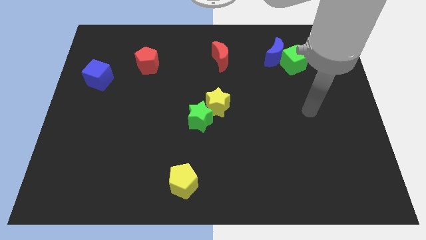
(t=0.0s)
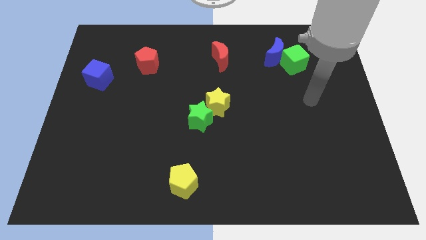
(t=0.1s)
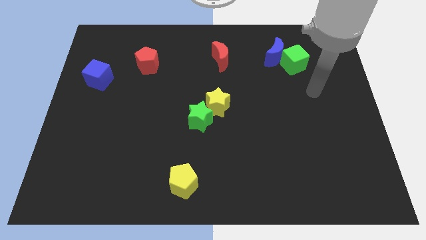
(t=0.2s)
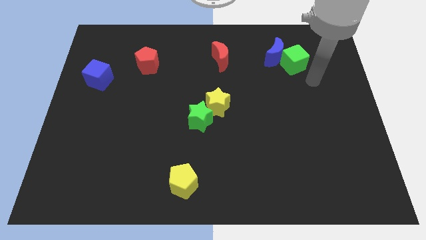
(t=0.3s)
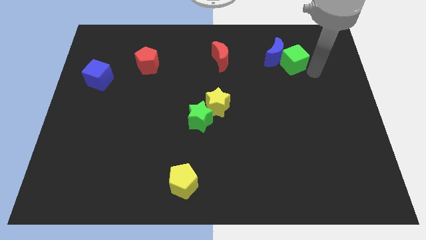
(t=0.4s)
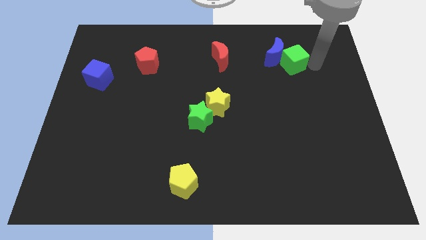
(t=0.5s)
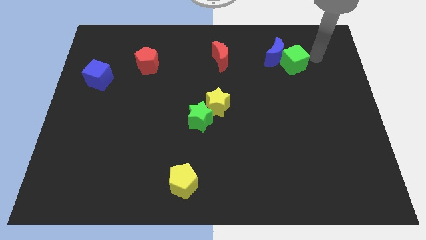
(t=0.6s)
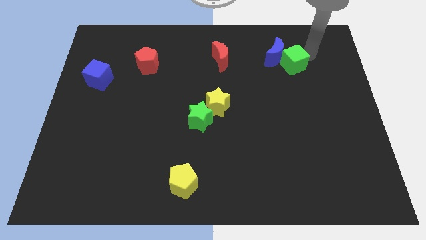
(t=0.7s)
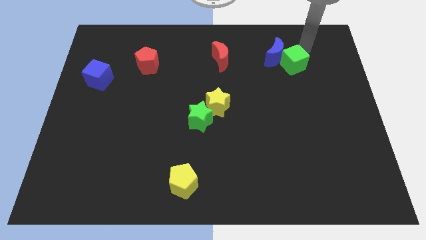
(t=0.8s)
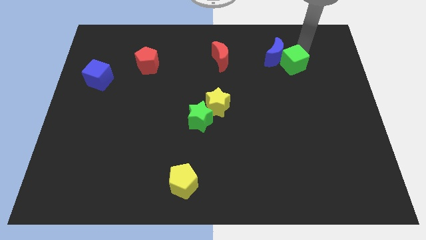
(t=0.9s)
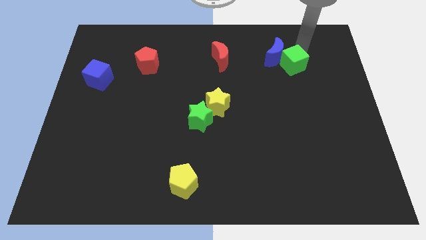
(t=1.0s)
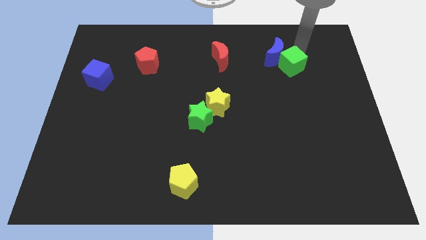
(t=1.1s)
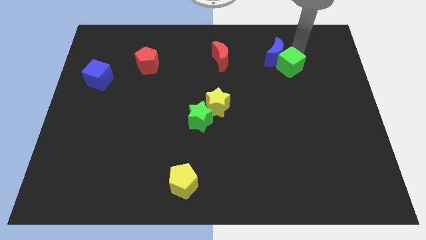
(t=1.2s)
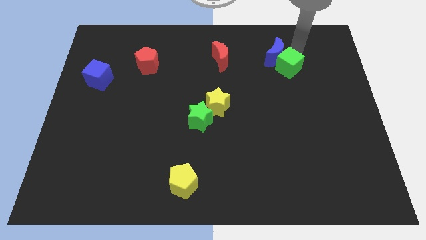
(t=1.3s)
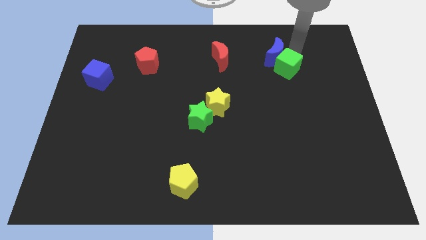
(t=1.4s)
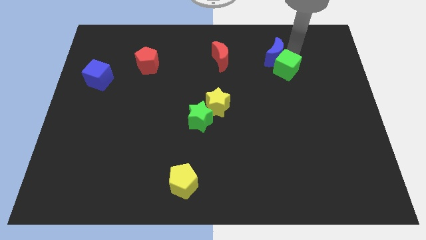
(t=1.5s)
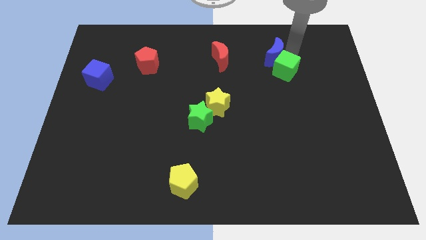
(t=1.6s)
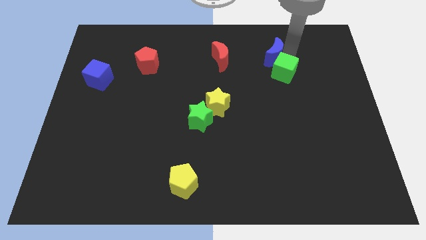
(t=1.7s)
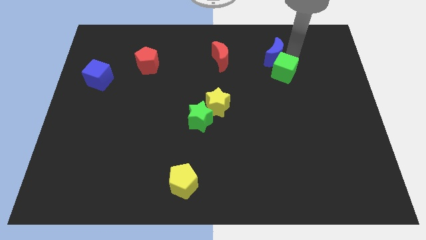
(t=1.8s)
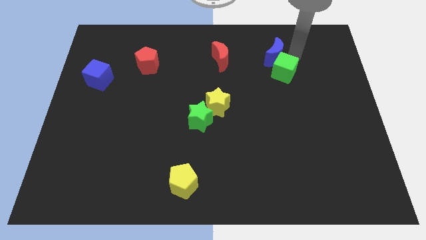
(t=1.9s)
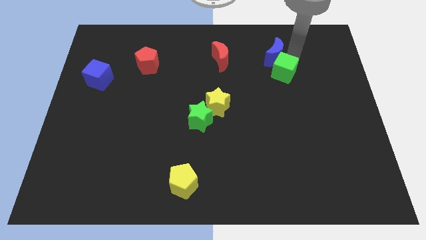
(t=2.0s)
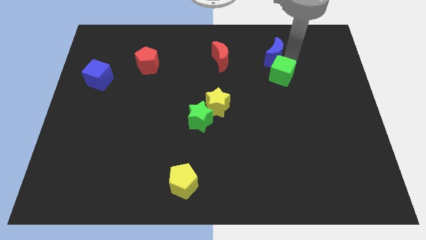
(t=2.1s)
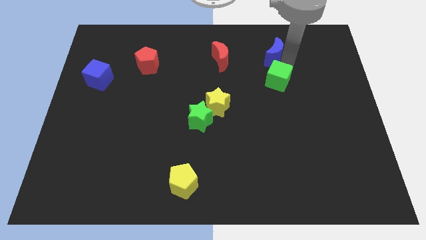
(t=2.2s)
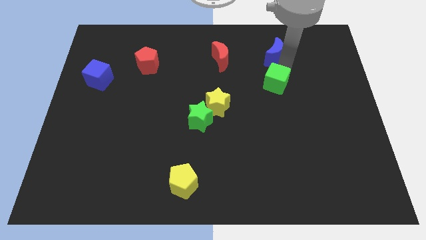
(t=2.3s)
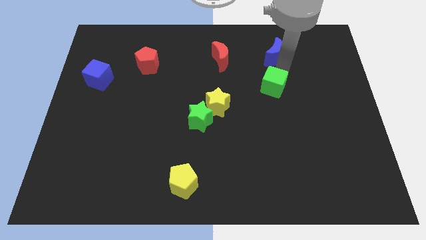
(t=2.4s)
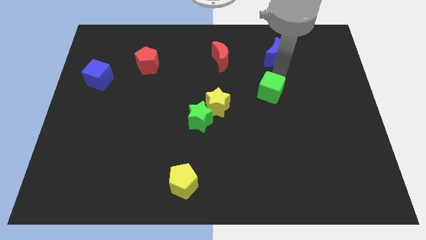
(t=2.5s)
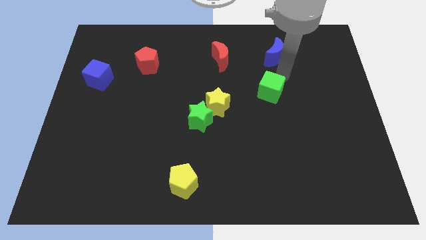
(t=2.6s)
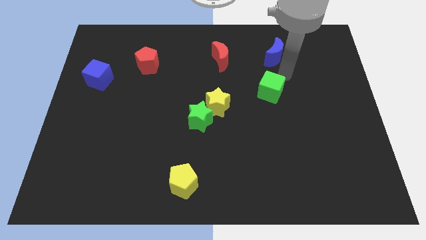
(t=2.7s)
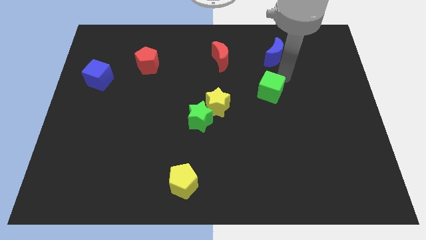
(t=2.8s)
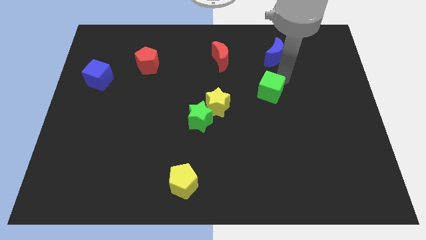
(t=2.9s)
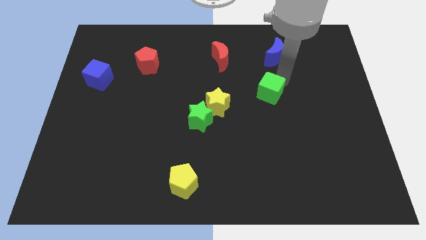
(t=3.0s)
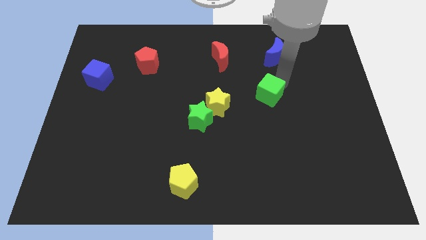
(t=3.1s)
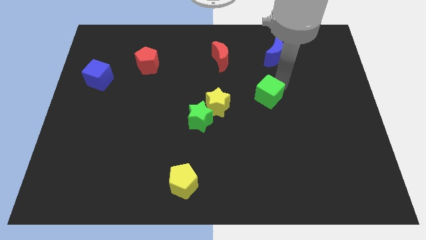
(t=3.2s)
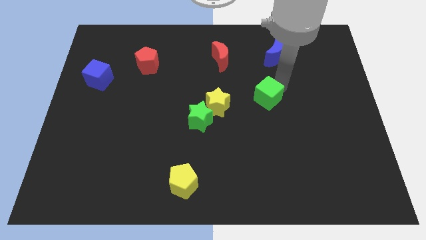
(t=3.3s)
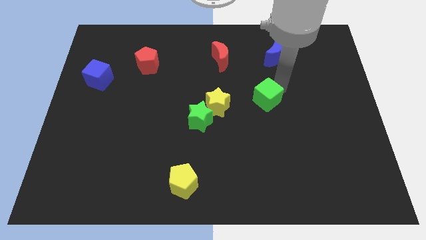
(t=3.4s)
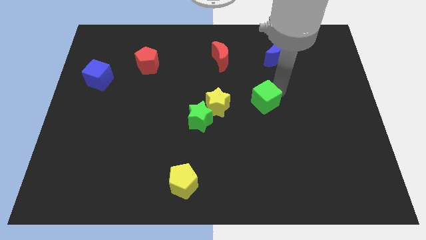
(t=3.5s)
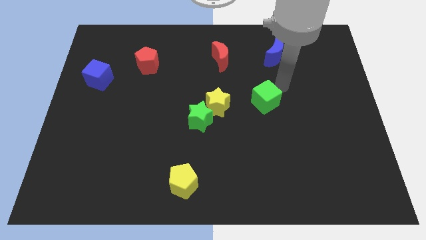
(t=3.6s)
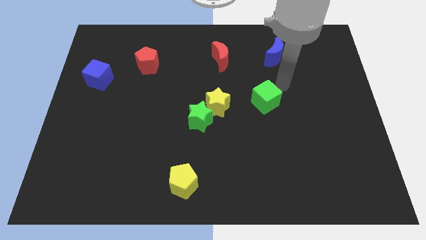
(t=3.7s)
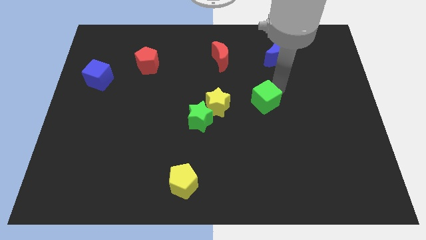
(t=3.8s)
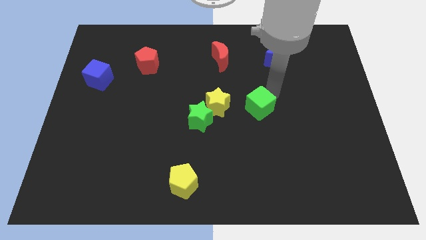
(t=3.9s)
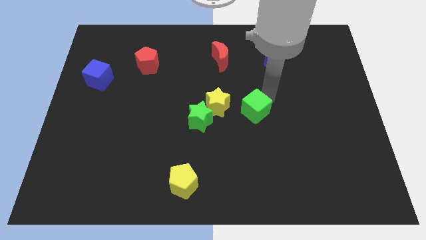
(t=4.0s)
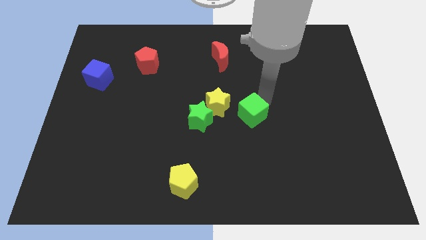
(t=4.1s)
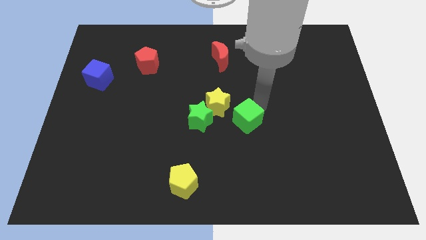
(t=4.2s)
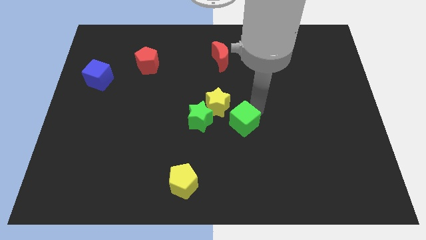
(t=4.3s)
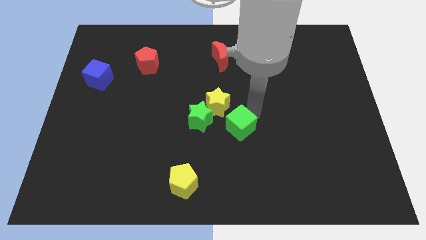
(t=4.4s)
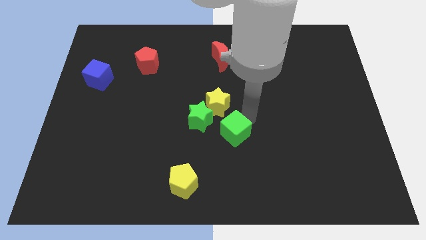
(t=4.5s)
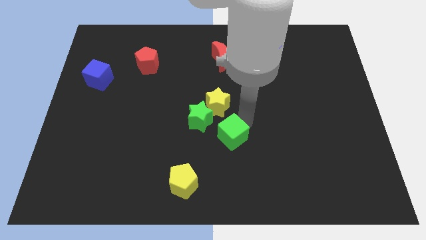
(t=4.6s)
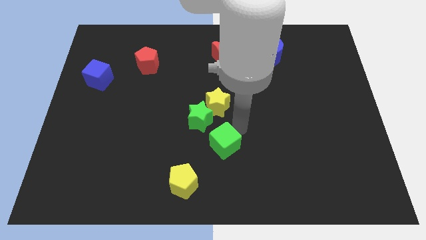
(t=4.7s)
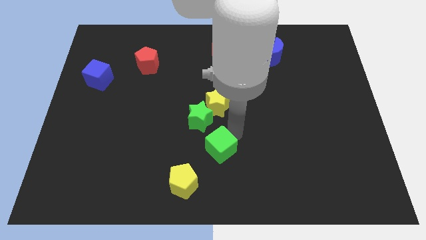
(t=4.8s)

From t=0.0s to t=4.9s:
put the green cube to the bottom of the green star

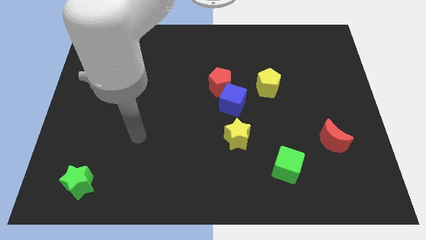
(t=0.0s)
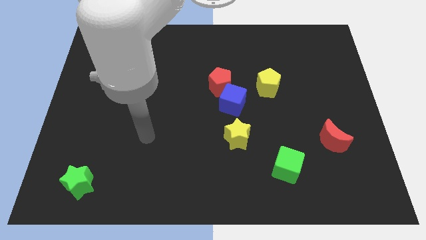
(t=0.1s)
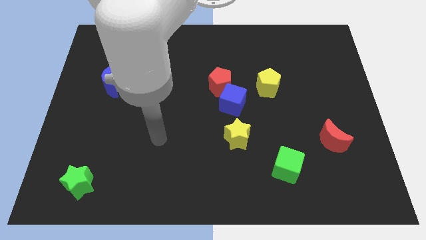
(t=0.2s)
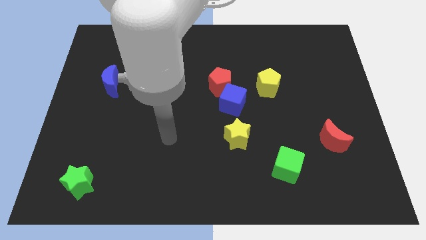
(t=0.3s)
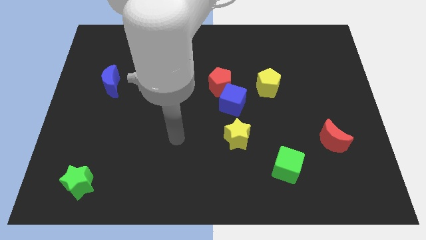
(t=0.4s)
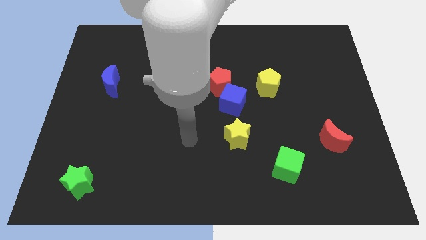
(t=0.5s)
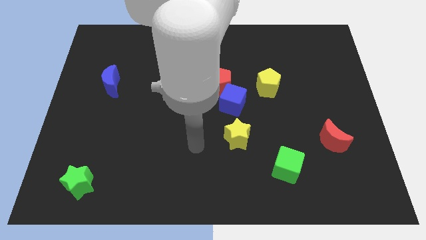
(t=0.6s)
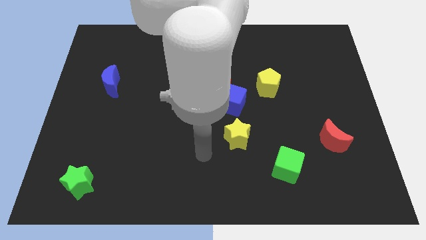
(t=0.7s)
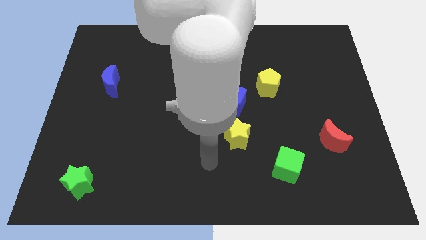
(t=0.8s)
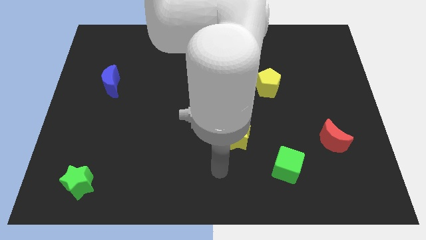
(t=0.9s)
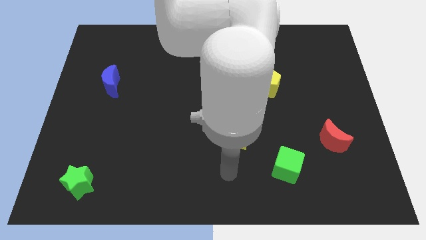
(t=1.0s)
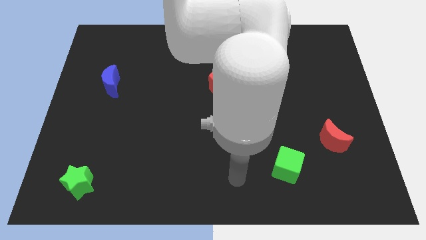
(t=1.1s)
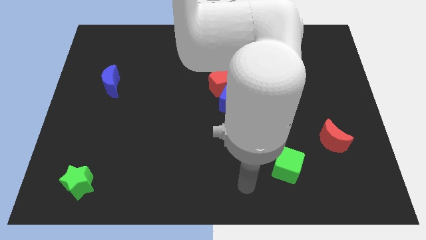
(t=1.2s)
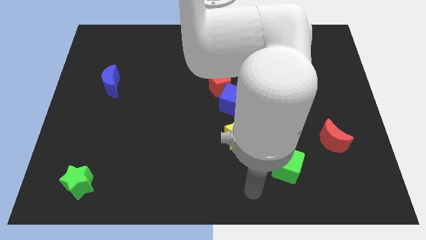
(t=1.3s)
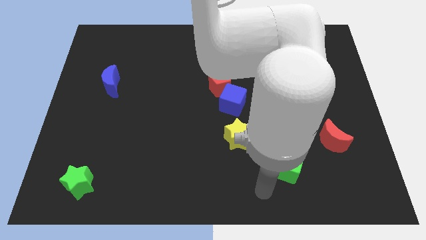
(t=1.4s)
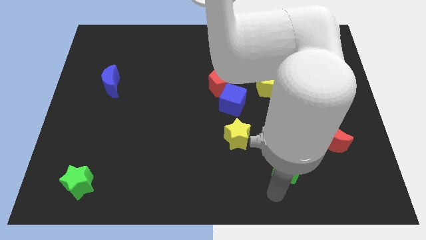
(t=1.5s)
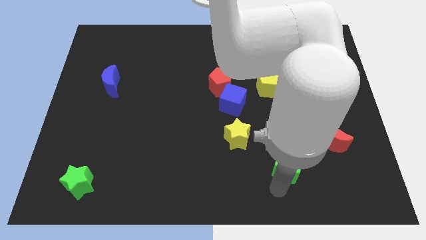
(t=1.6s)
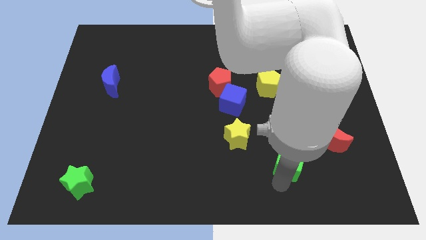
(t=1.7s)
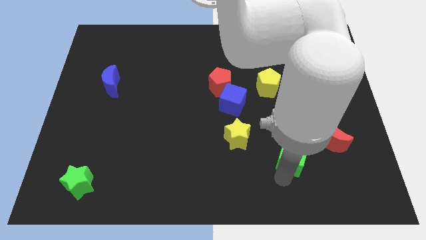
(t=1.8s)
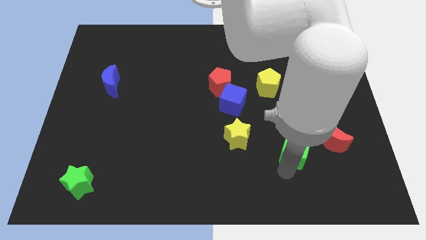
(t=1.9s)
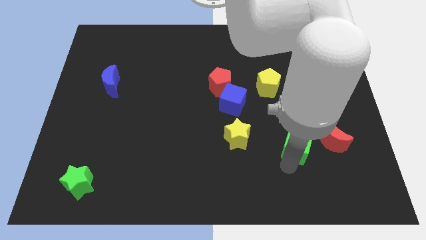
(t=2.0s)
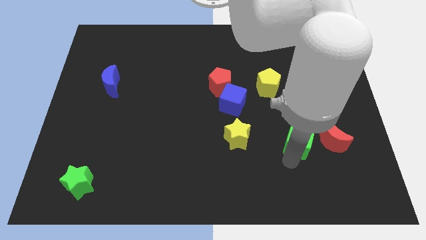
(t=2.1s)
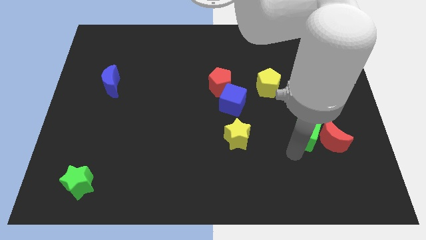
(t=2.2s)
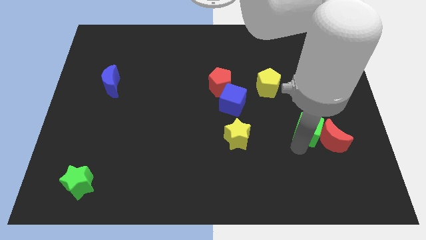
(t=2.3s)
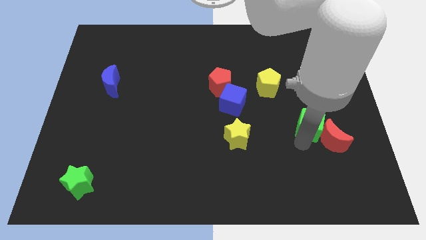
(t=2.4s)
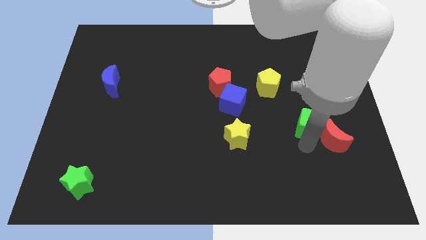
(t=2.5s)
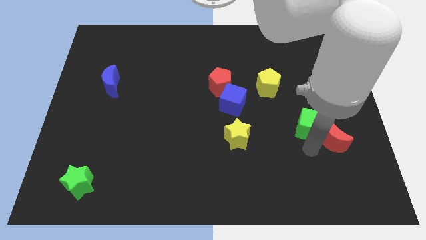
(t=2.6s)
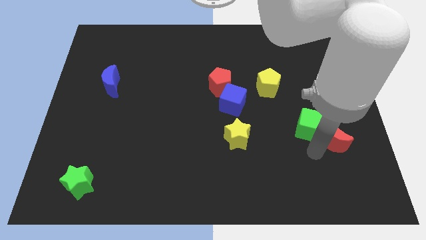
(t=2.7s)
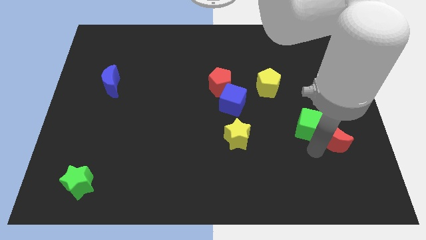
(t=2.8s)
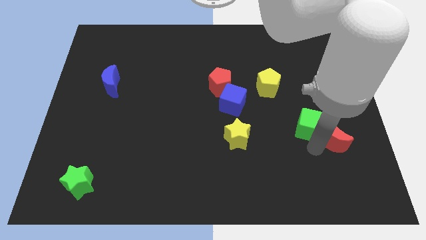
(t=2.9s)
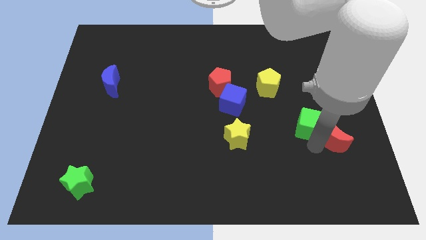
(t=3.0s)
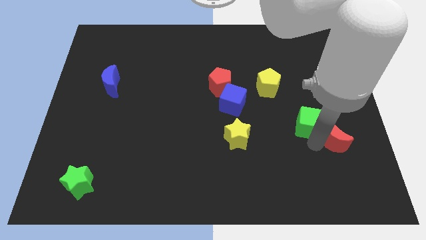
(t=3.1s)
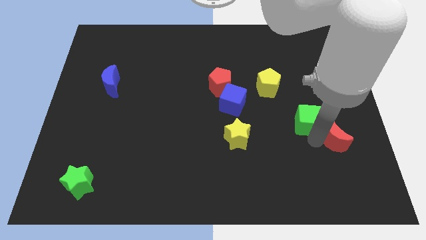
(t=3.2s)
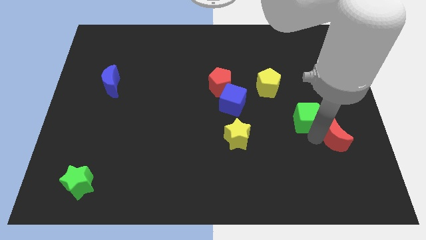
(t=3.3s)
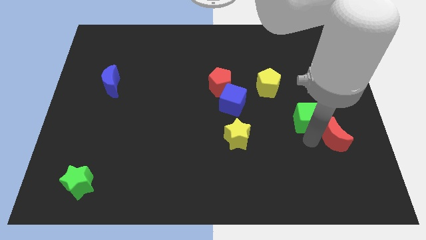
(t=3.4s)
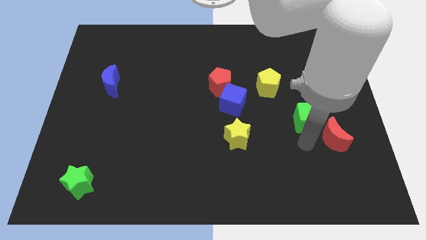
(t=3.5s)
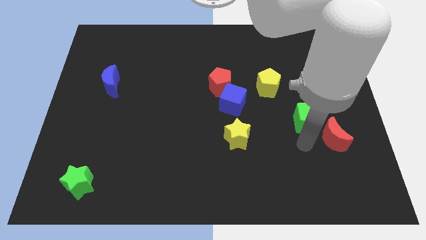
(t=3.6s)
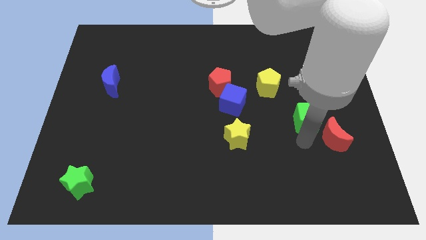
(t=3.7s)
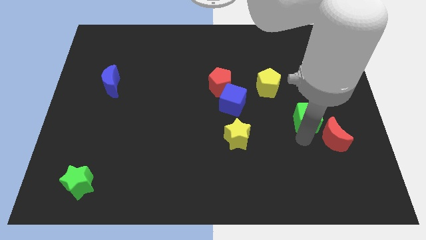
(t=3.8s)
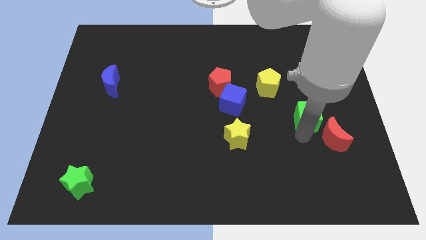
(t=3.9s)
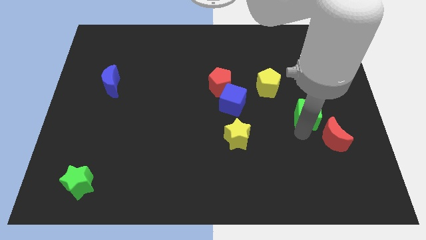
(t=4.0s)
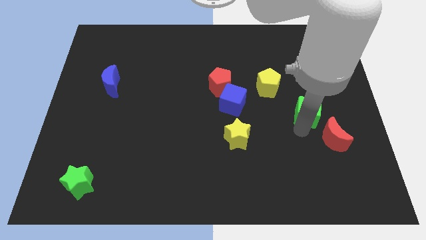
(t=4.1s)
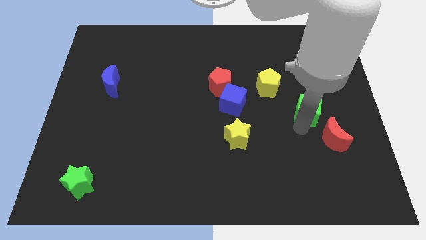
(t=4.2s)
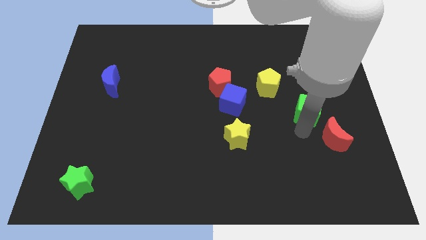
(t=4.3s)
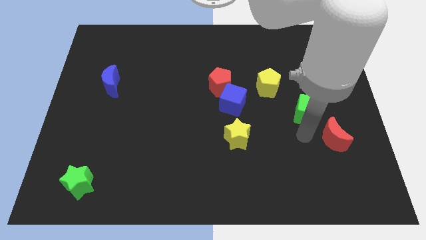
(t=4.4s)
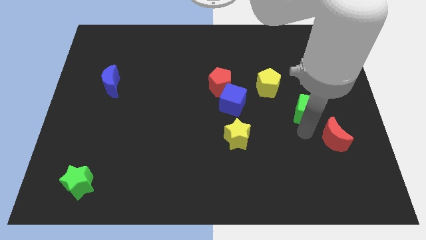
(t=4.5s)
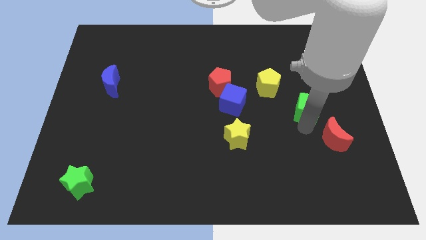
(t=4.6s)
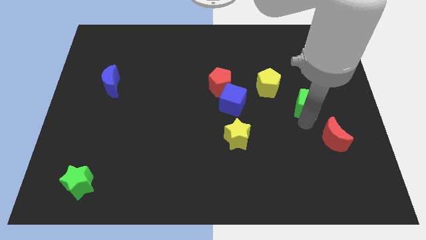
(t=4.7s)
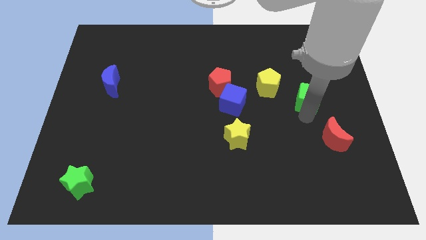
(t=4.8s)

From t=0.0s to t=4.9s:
move the green cube just right of the yellow pentagon
